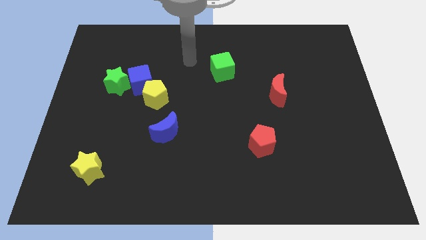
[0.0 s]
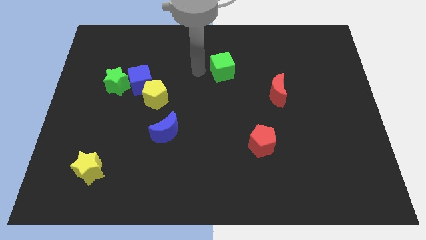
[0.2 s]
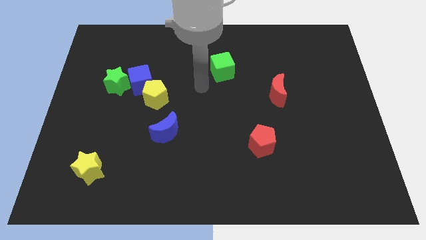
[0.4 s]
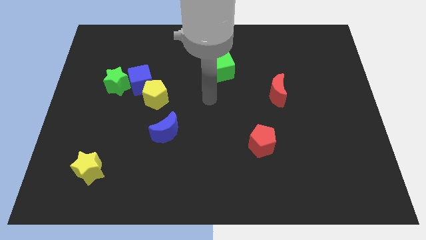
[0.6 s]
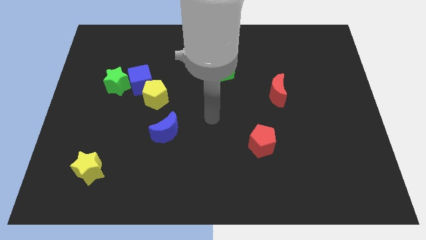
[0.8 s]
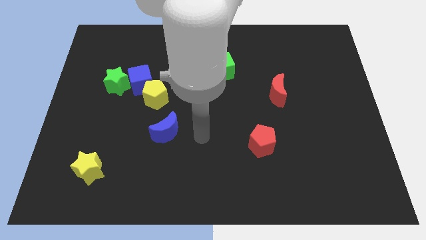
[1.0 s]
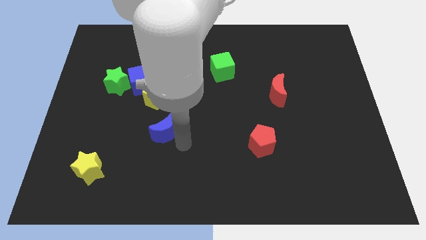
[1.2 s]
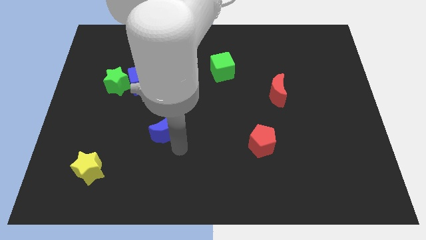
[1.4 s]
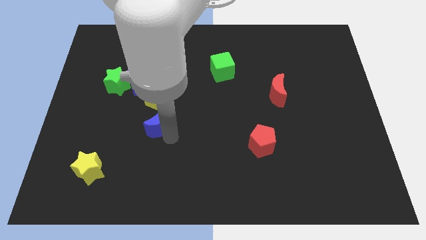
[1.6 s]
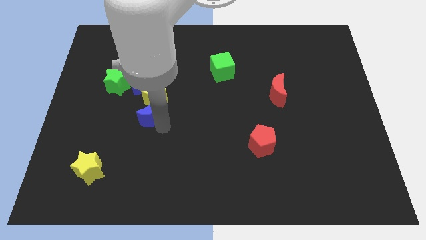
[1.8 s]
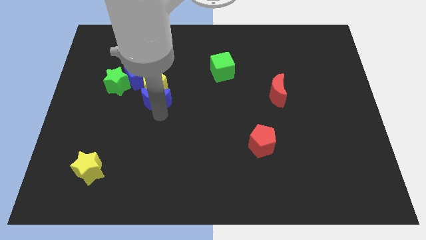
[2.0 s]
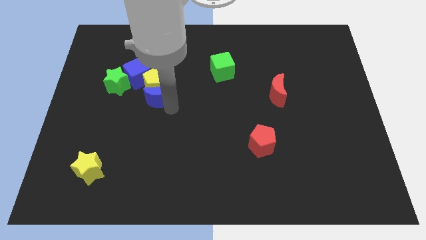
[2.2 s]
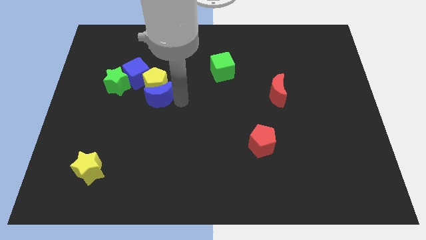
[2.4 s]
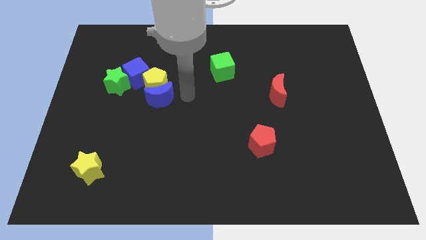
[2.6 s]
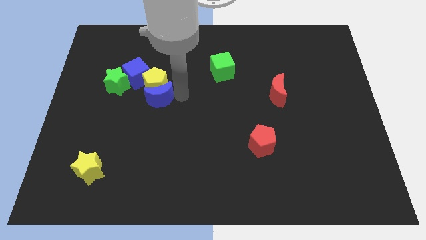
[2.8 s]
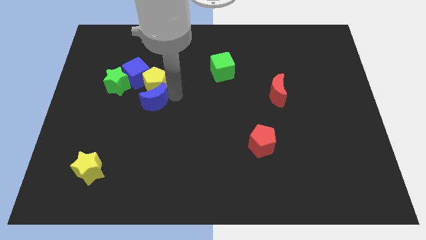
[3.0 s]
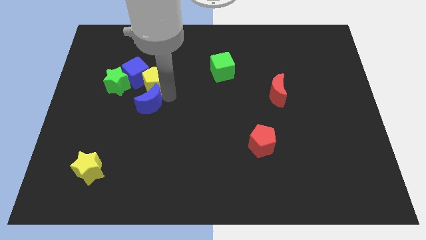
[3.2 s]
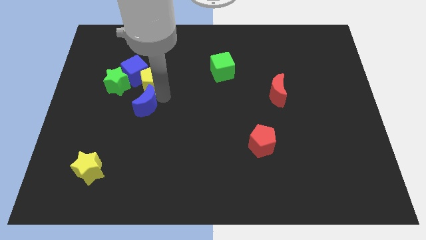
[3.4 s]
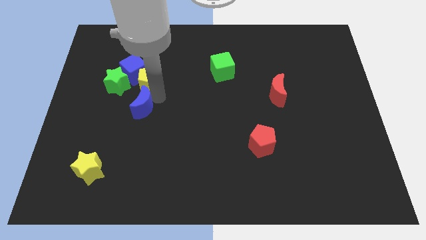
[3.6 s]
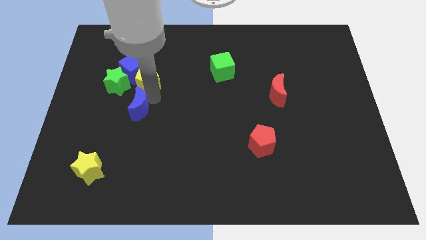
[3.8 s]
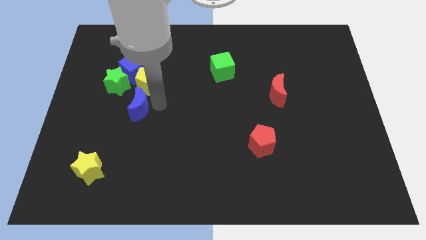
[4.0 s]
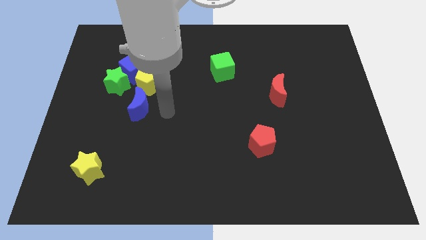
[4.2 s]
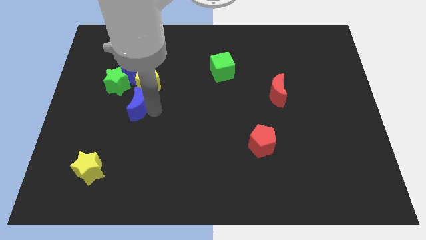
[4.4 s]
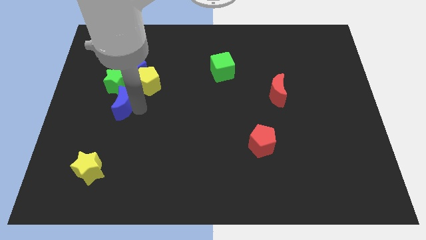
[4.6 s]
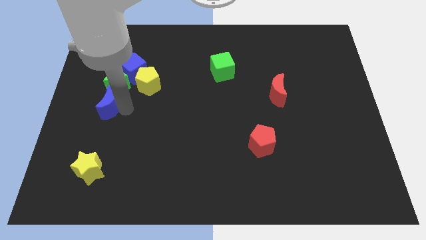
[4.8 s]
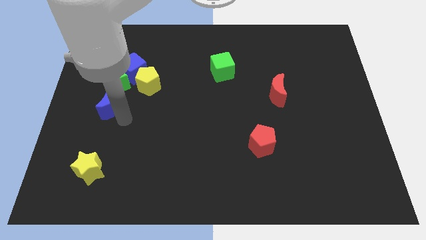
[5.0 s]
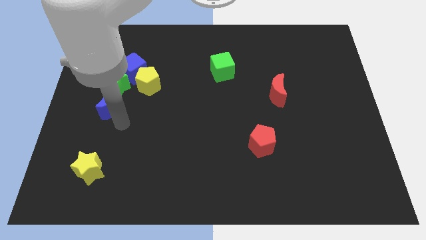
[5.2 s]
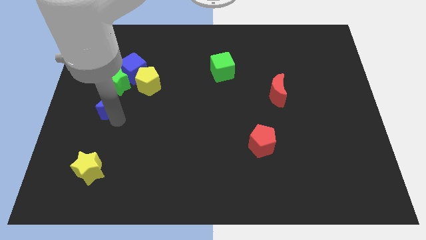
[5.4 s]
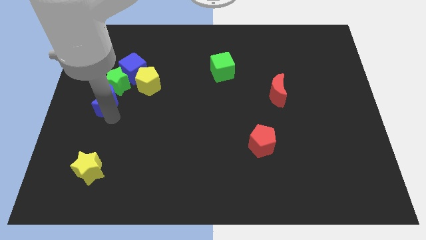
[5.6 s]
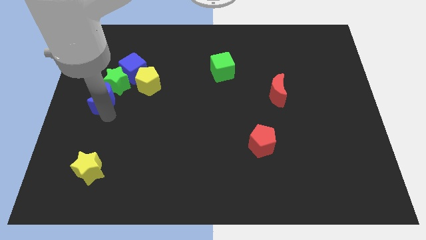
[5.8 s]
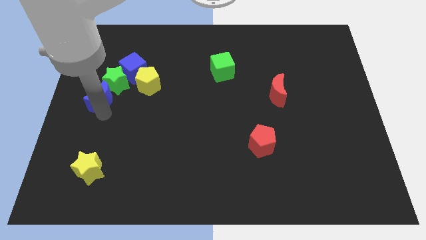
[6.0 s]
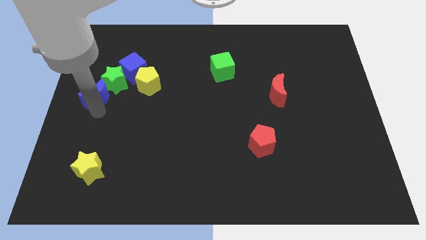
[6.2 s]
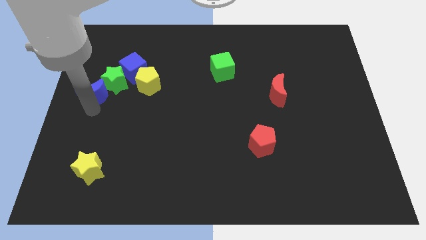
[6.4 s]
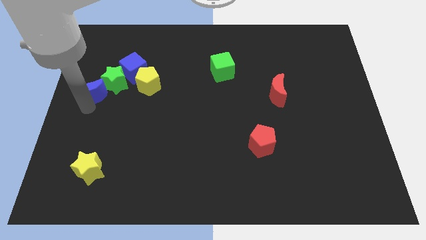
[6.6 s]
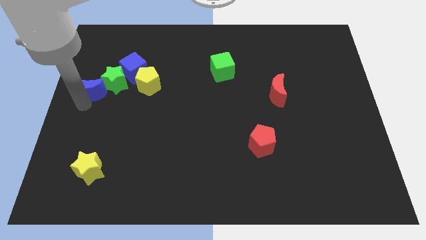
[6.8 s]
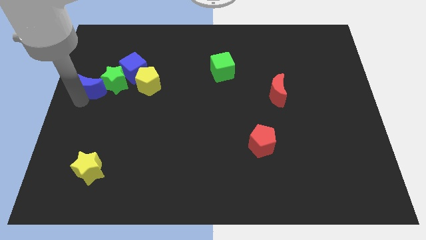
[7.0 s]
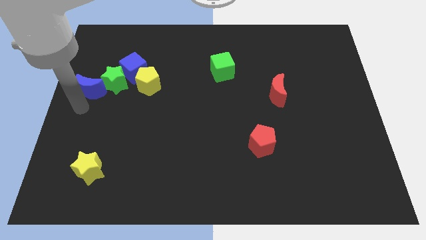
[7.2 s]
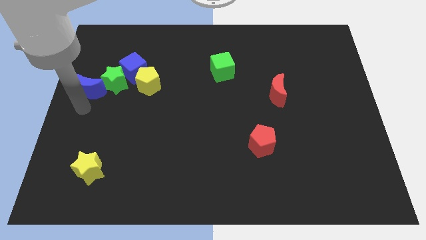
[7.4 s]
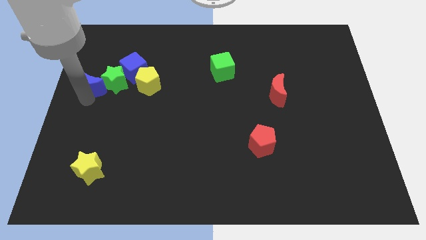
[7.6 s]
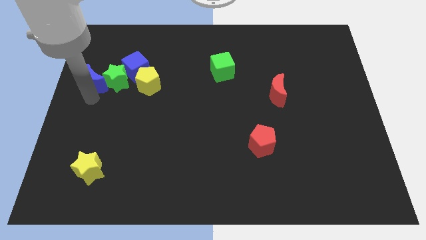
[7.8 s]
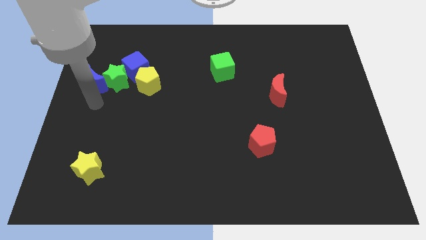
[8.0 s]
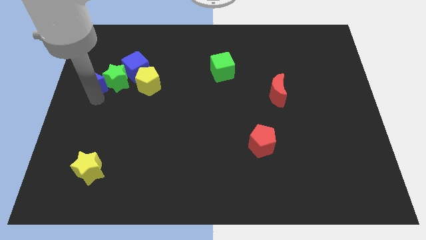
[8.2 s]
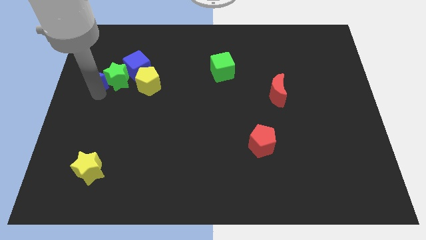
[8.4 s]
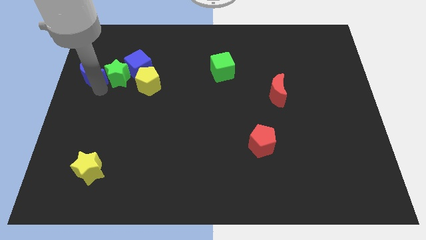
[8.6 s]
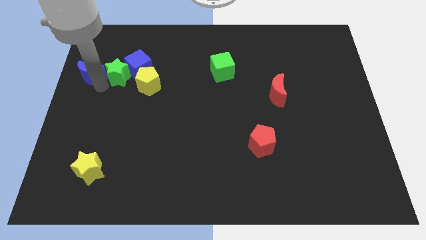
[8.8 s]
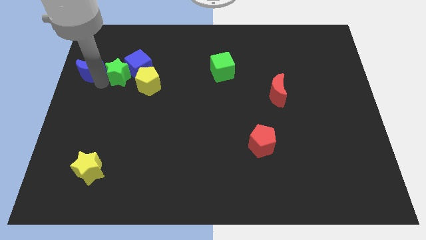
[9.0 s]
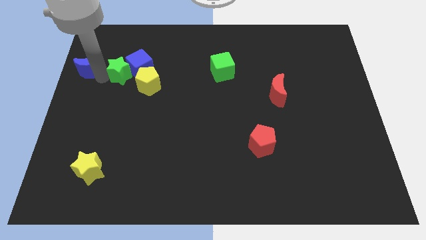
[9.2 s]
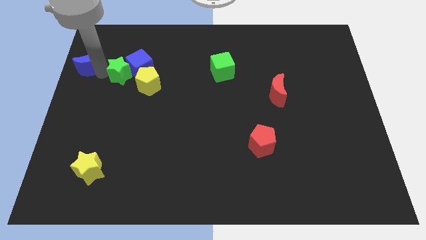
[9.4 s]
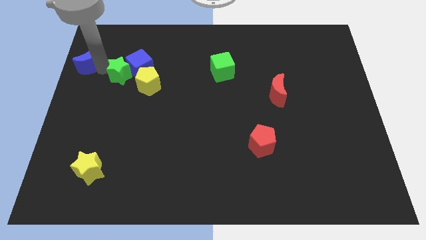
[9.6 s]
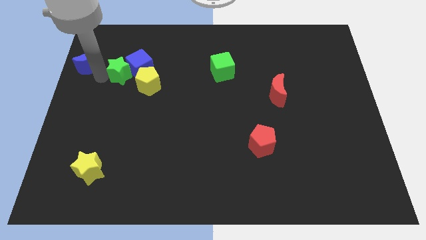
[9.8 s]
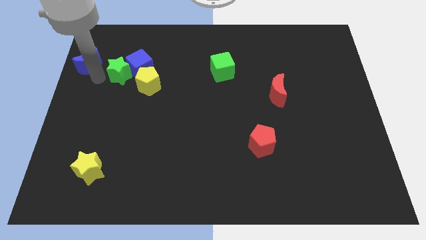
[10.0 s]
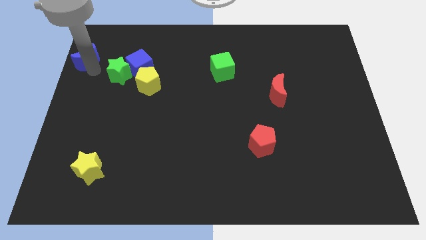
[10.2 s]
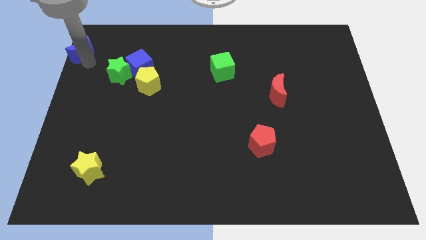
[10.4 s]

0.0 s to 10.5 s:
move the blue moon to the upper left corner

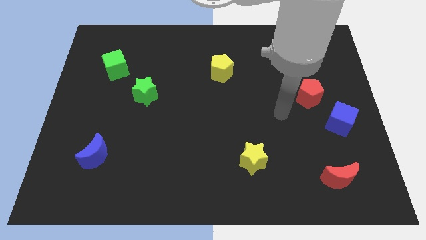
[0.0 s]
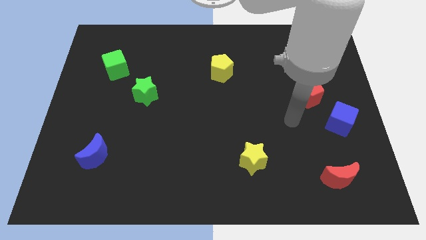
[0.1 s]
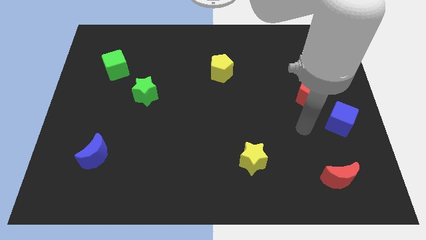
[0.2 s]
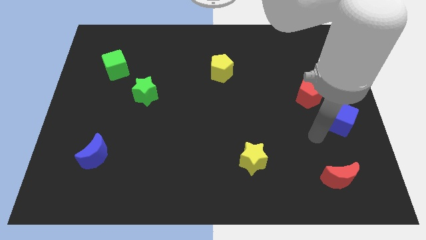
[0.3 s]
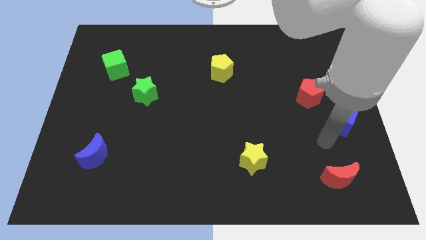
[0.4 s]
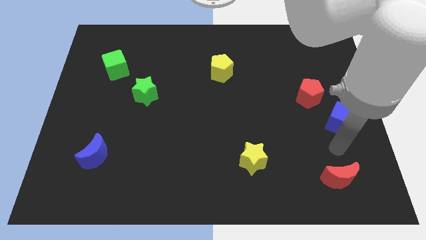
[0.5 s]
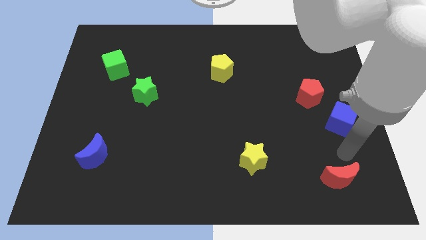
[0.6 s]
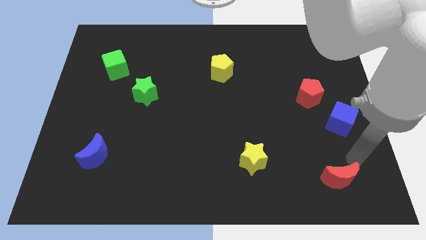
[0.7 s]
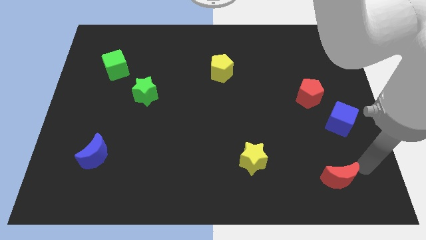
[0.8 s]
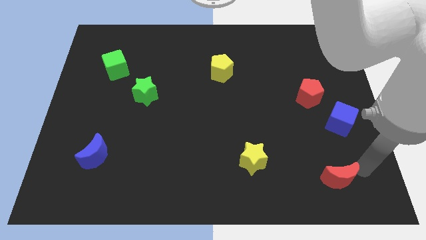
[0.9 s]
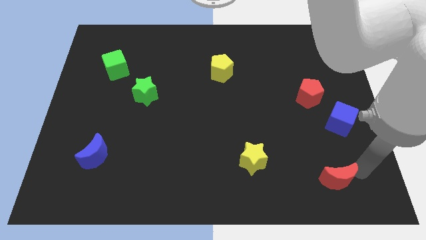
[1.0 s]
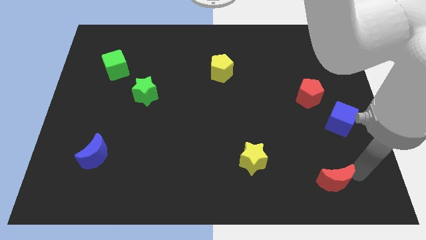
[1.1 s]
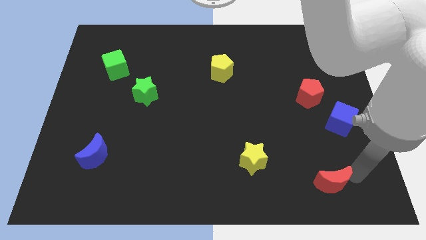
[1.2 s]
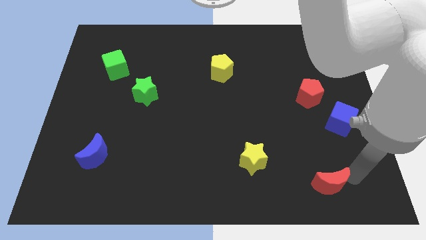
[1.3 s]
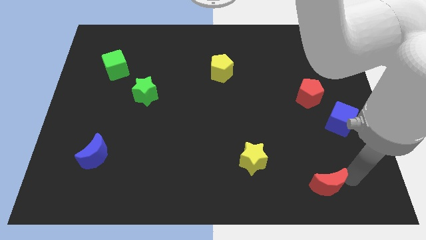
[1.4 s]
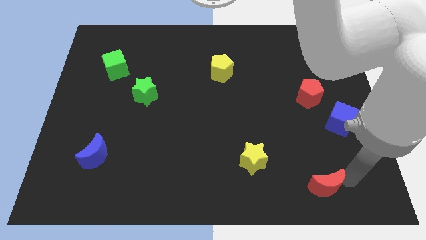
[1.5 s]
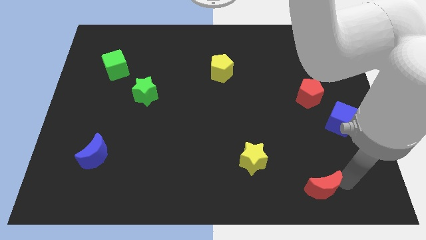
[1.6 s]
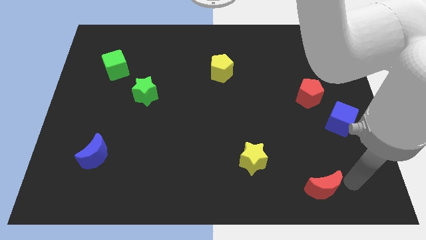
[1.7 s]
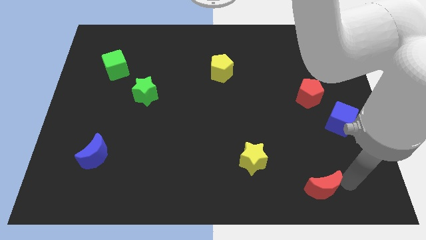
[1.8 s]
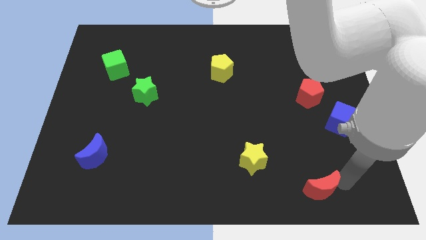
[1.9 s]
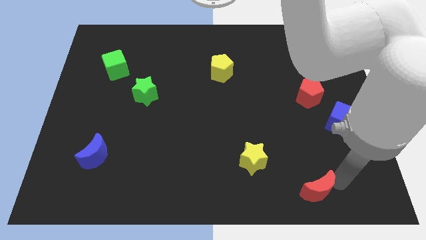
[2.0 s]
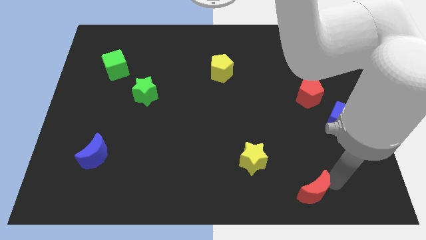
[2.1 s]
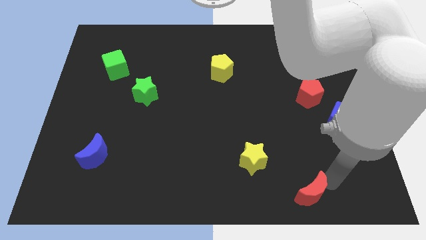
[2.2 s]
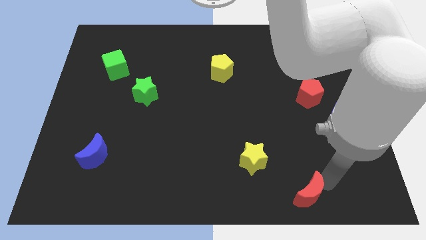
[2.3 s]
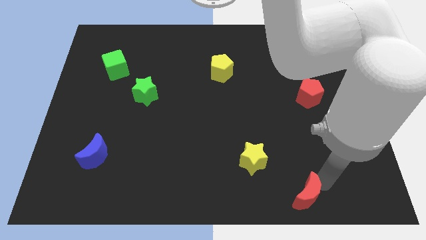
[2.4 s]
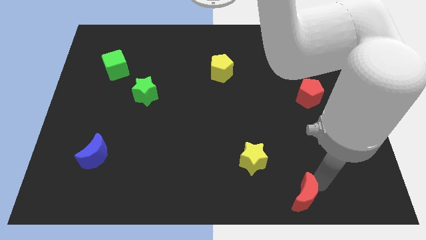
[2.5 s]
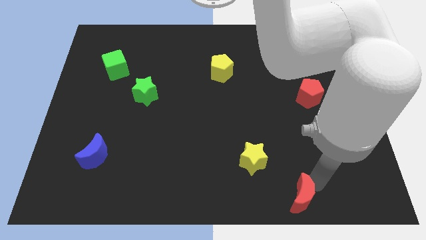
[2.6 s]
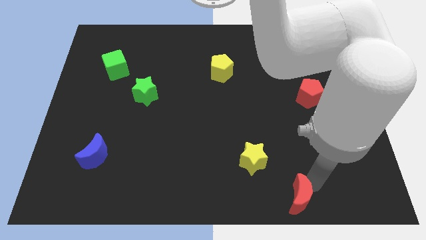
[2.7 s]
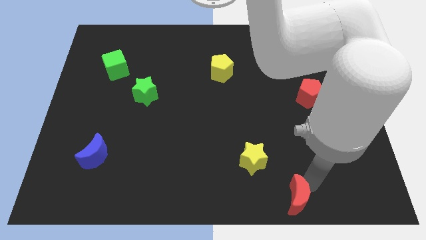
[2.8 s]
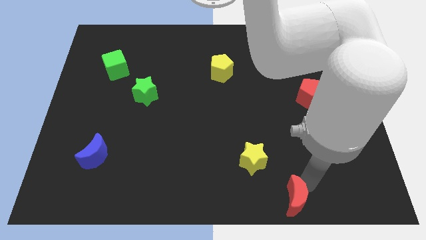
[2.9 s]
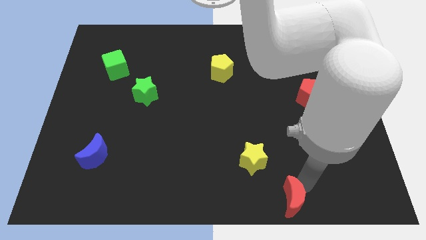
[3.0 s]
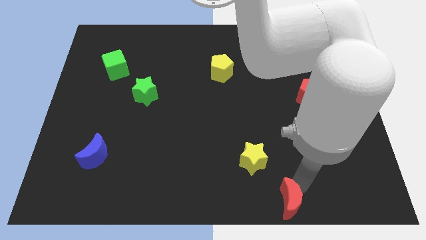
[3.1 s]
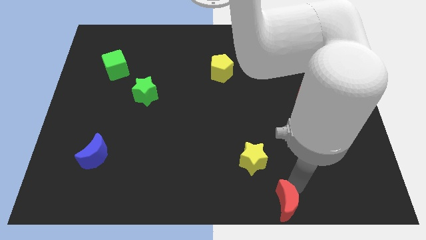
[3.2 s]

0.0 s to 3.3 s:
move the red moon to the bottom
